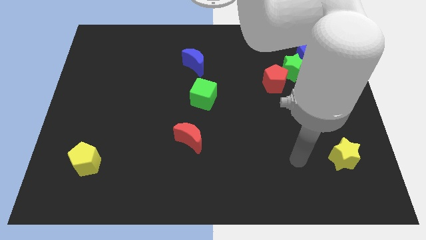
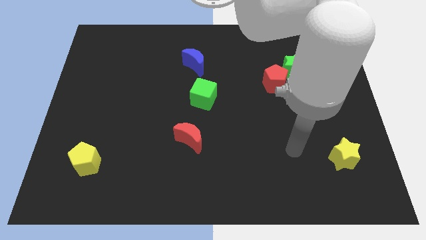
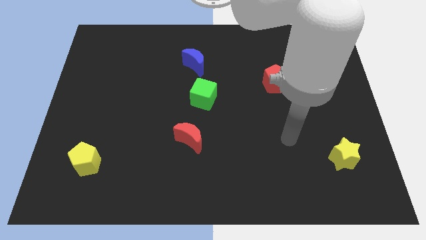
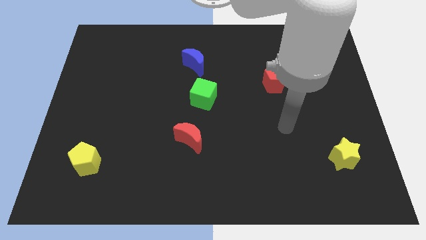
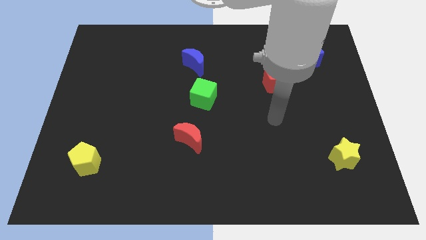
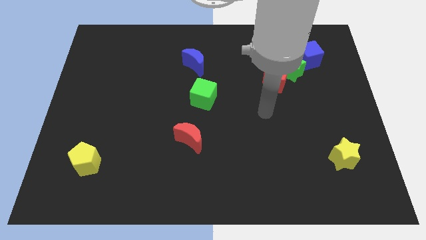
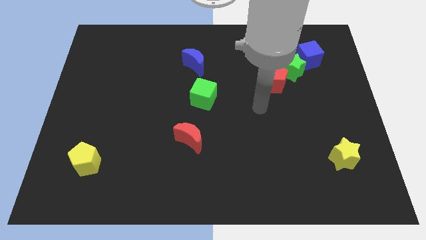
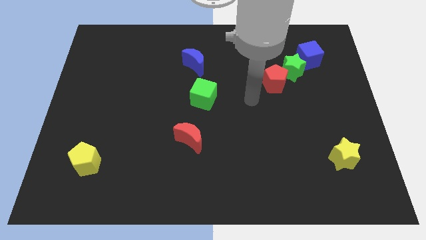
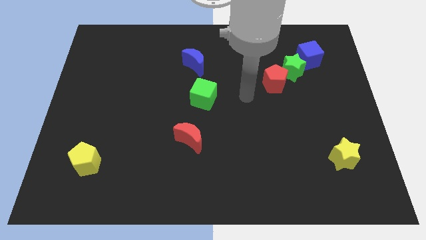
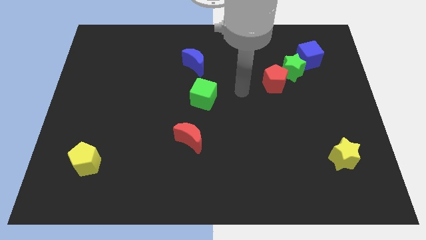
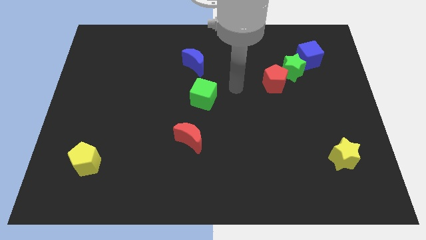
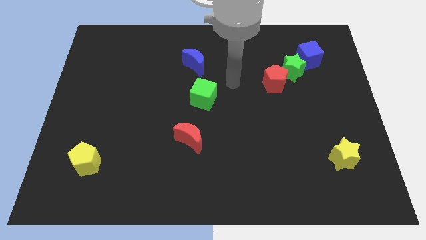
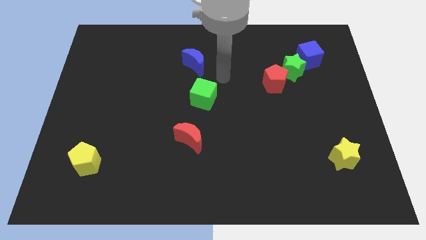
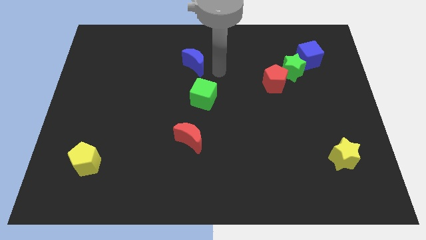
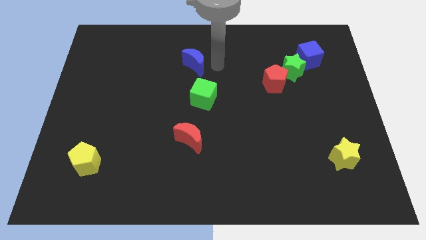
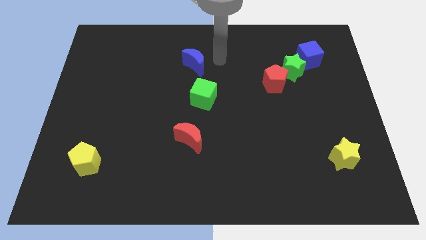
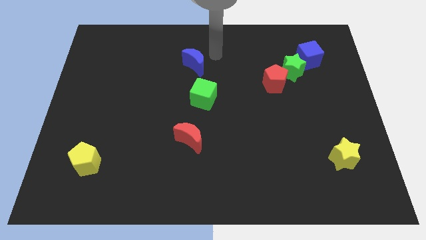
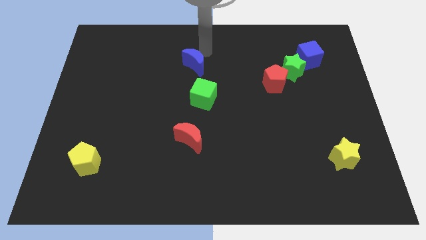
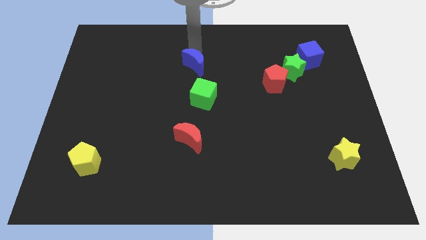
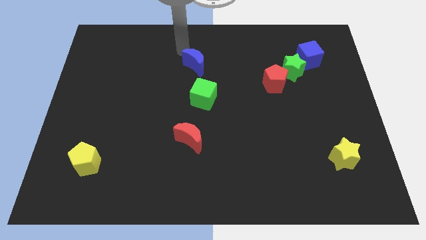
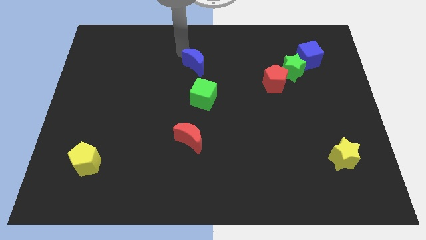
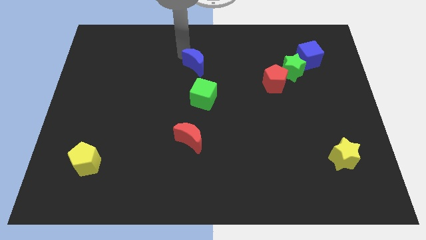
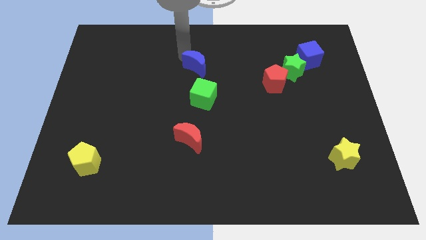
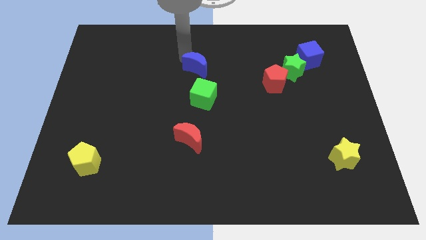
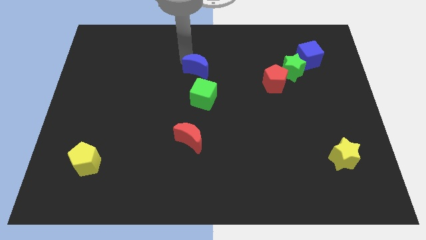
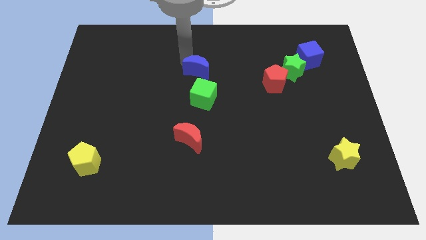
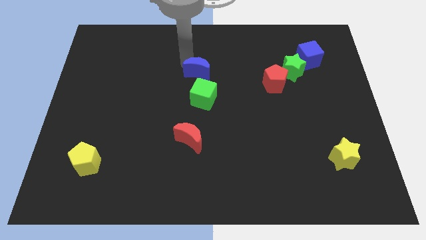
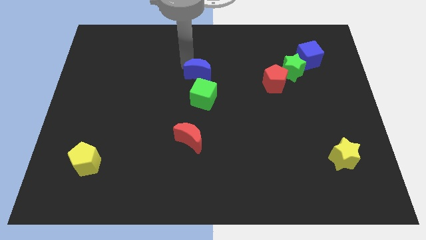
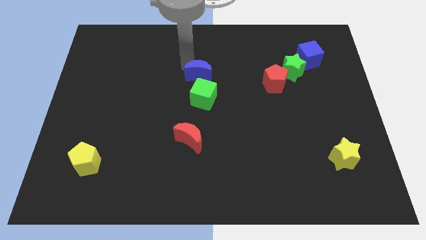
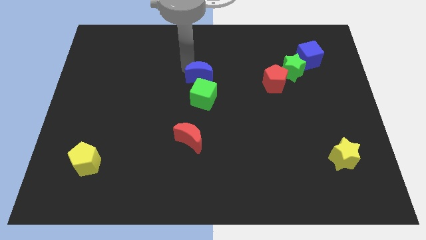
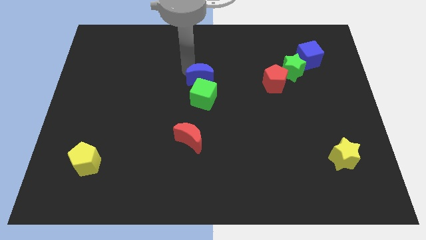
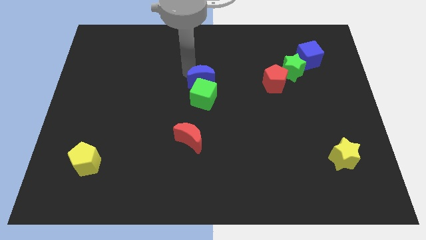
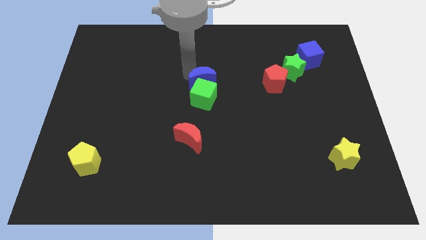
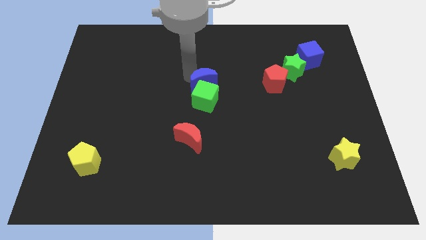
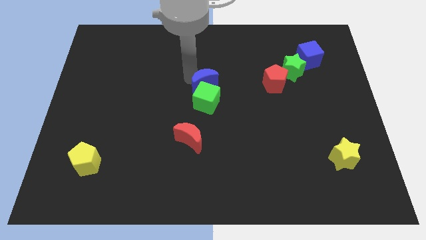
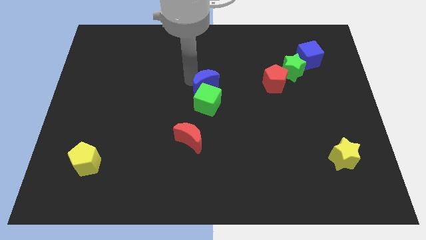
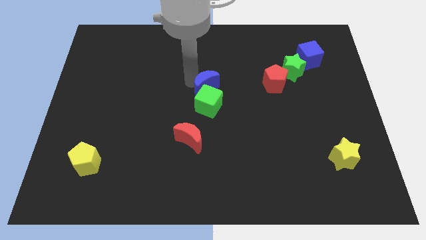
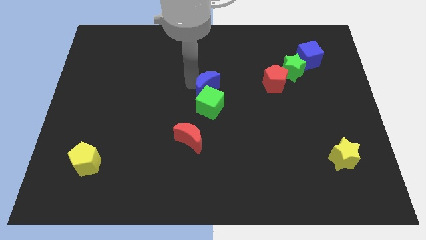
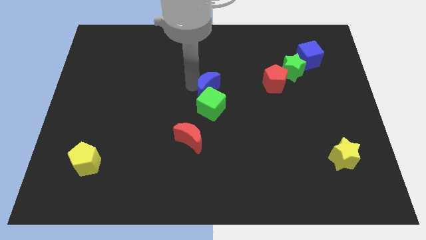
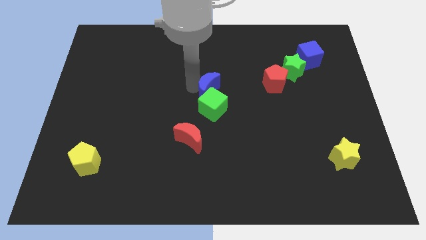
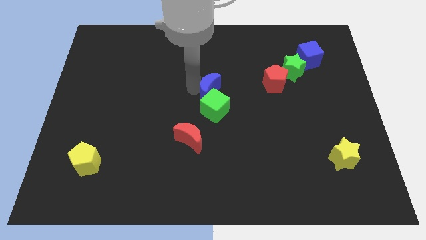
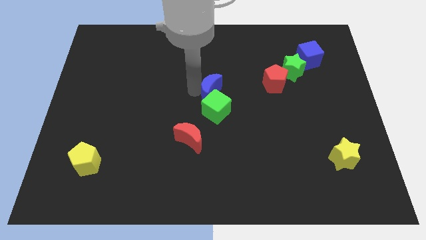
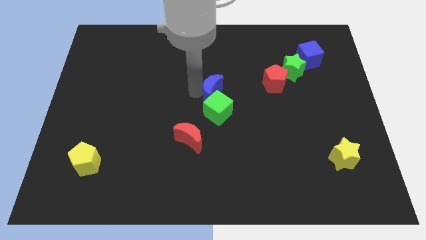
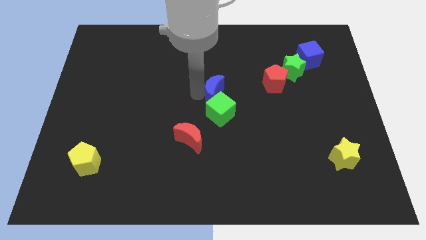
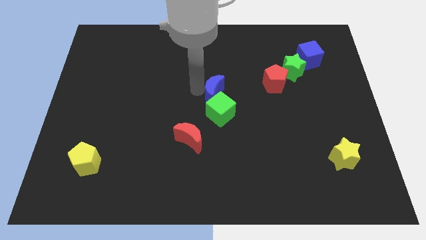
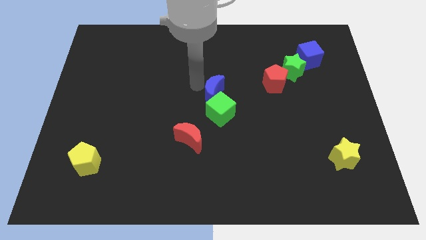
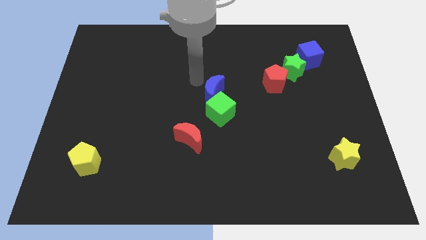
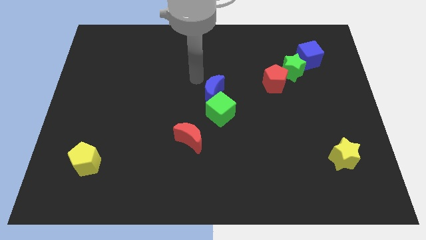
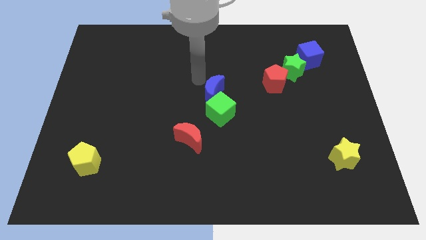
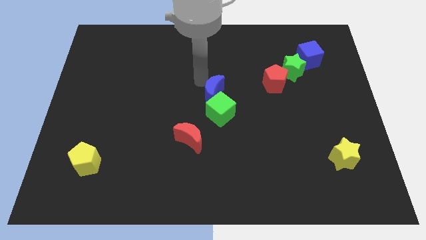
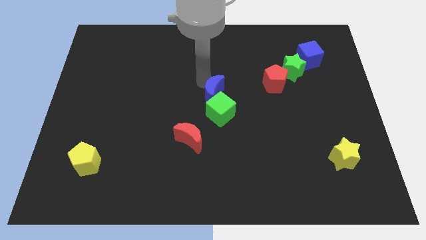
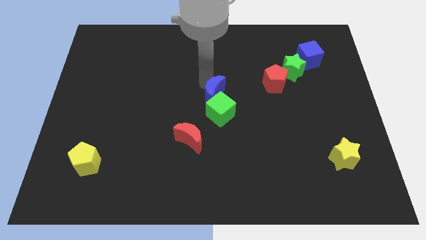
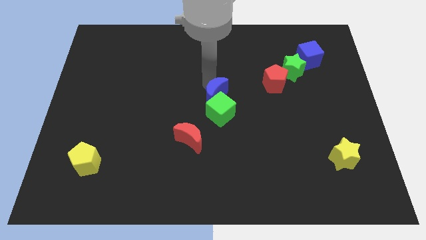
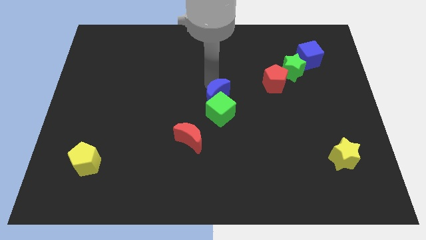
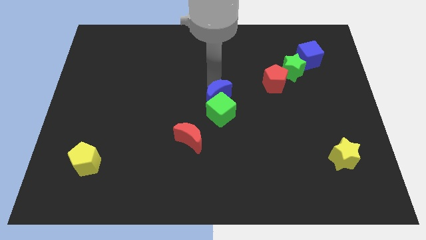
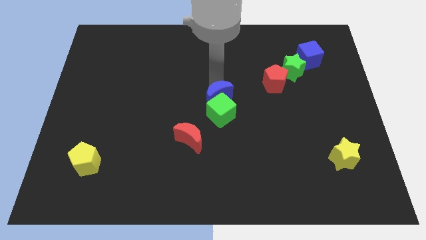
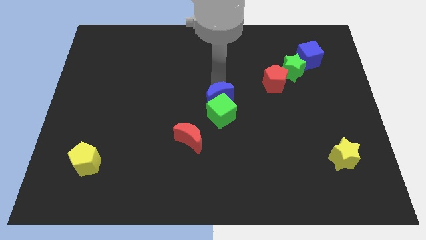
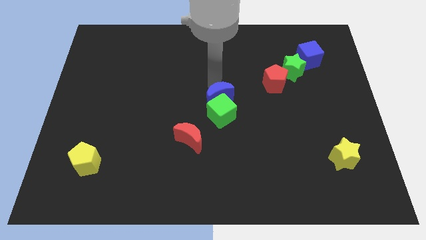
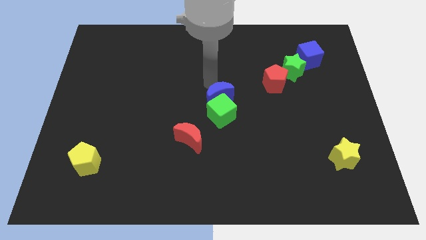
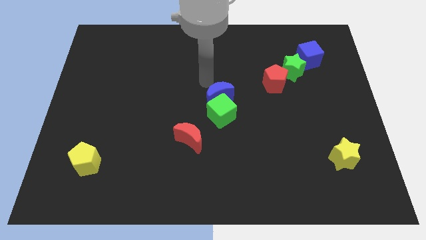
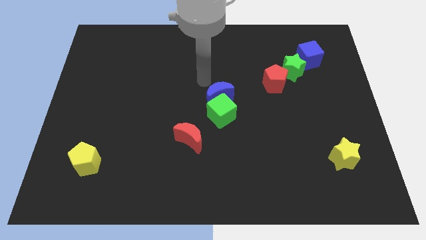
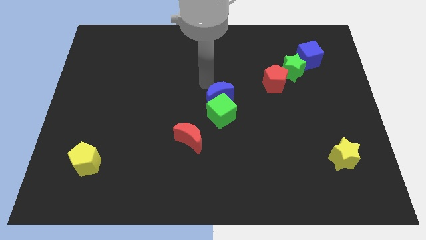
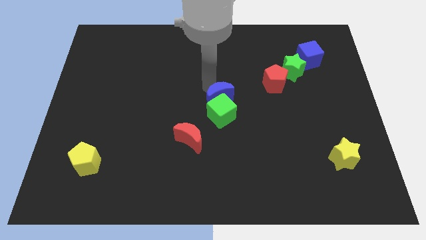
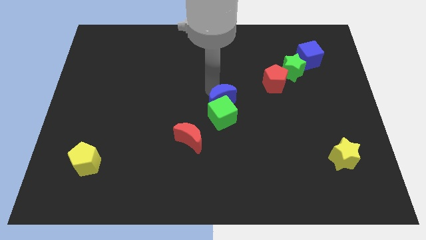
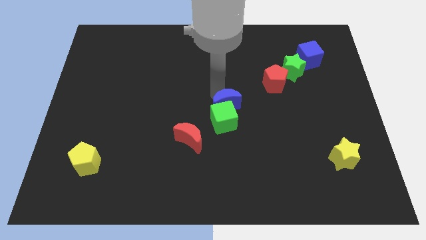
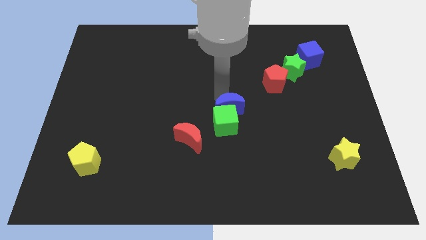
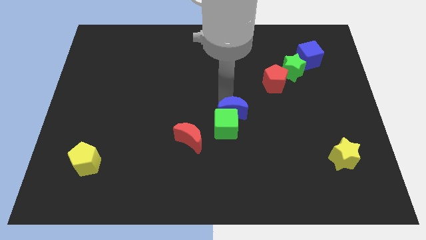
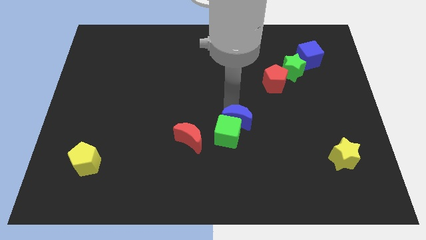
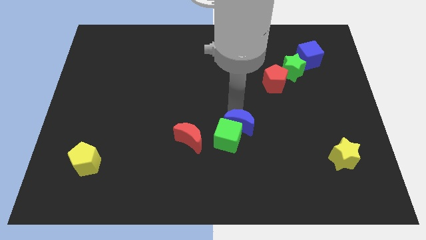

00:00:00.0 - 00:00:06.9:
put the blue moon right of the red moon

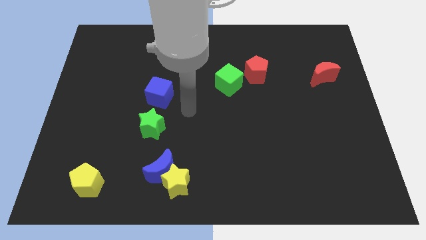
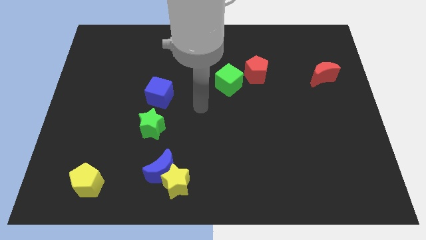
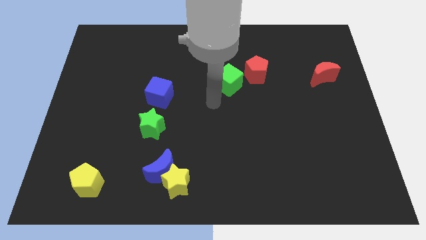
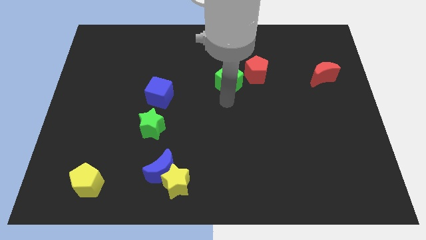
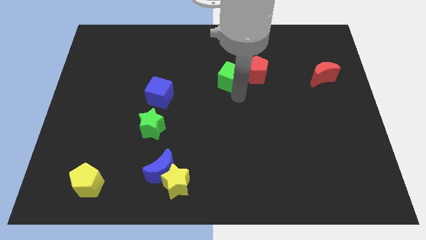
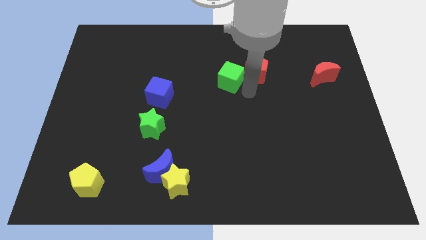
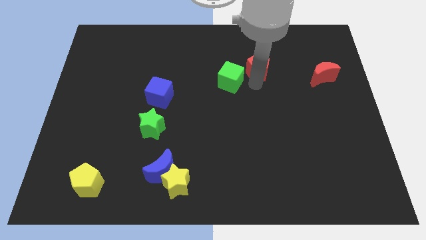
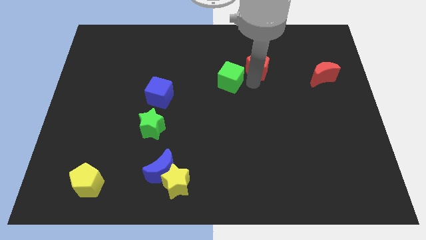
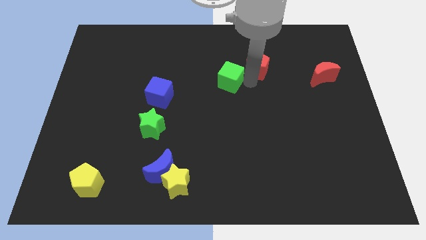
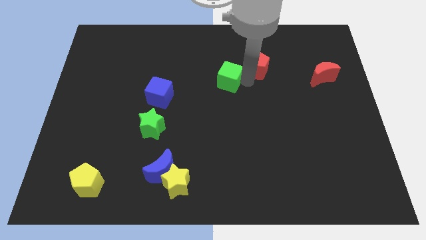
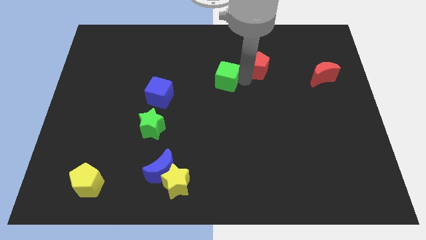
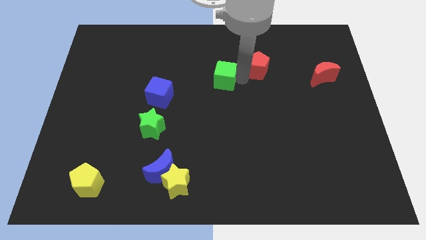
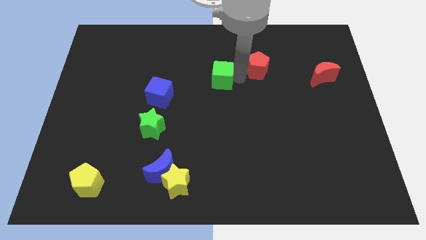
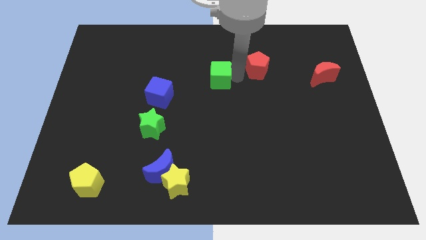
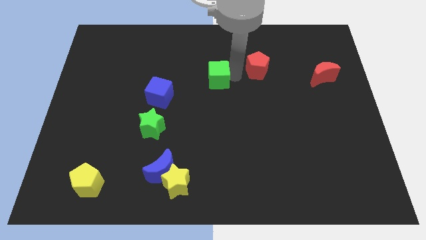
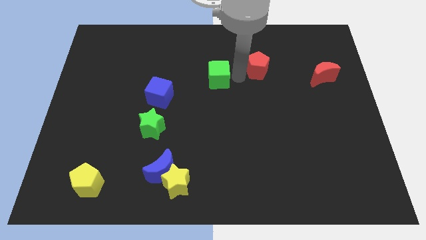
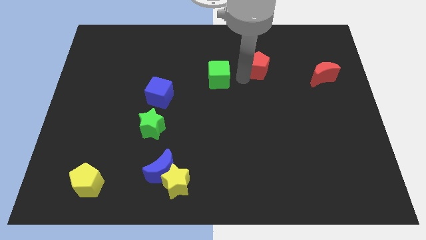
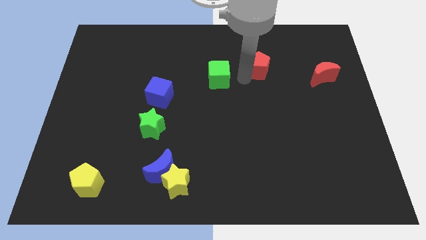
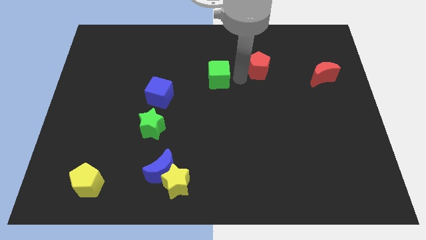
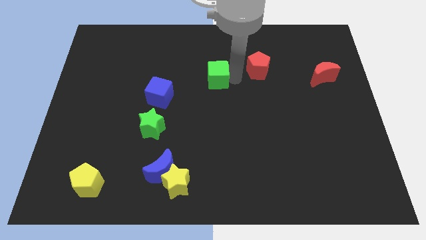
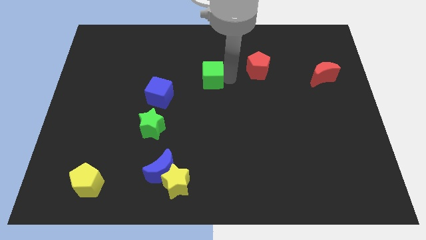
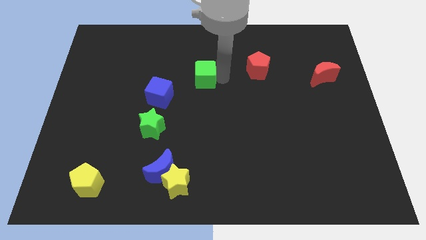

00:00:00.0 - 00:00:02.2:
slide the green cube to the top right of the blue cube
